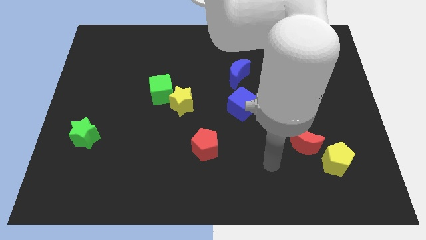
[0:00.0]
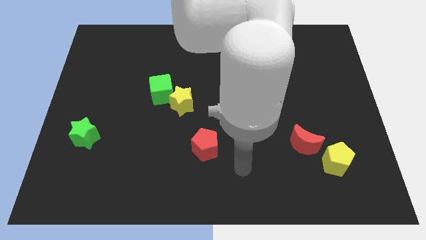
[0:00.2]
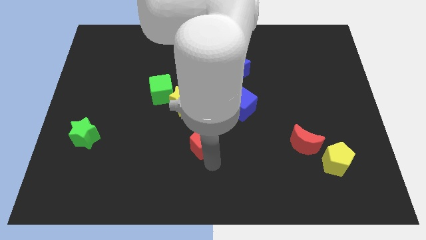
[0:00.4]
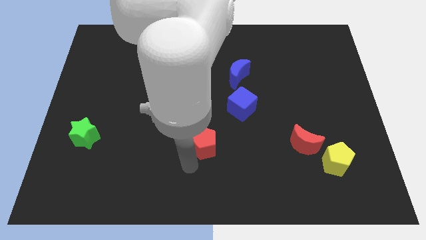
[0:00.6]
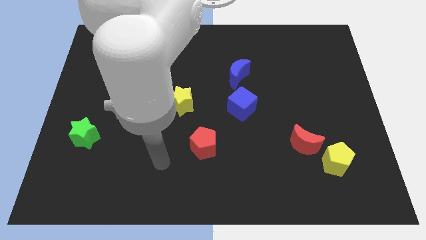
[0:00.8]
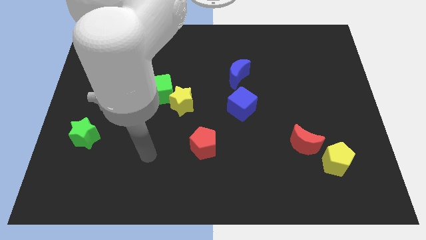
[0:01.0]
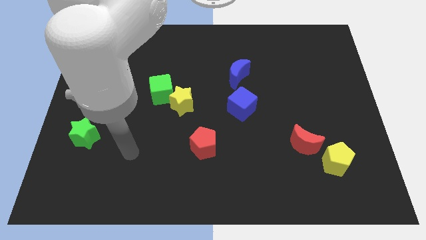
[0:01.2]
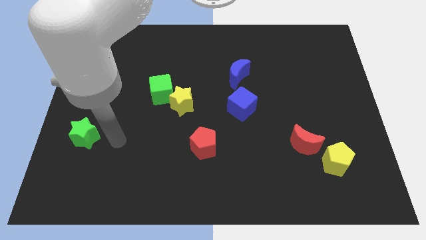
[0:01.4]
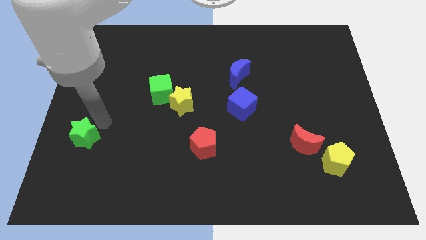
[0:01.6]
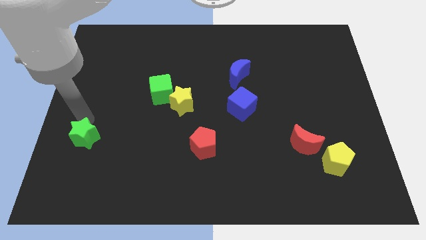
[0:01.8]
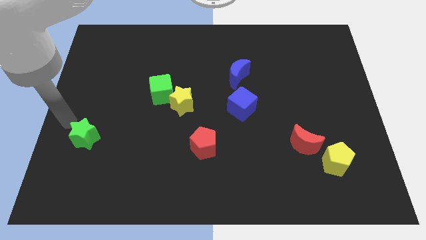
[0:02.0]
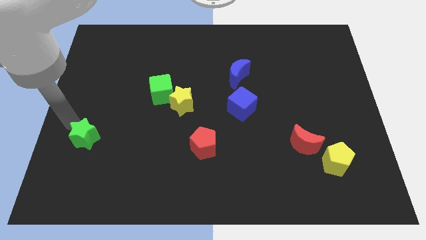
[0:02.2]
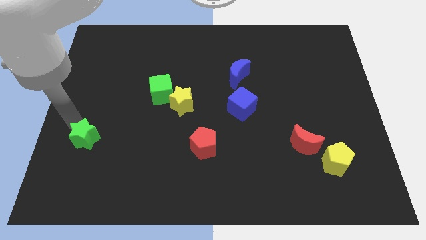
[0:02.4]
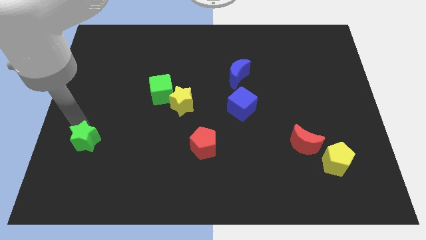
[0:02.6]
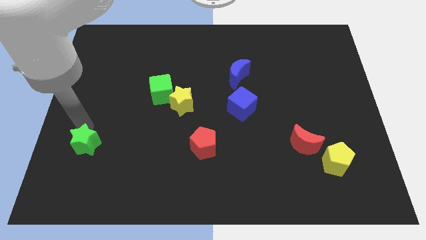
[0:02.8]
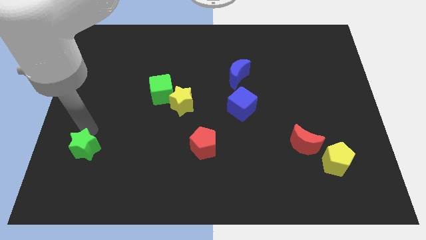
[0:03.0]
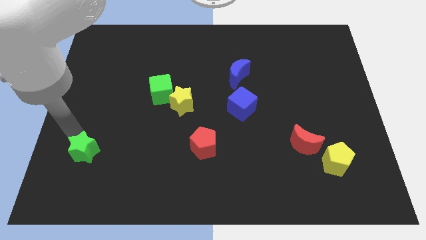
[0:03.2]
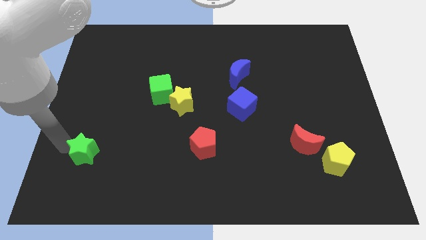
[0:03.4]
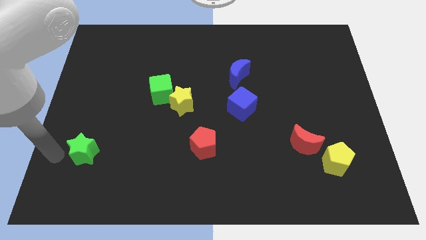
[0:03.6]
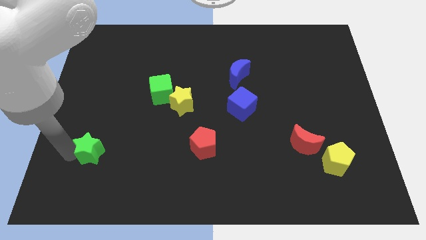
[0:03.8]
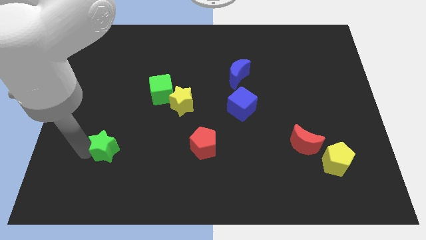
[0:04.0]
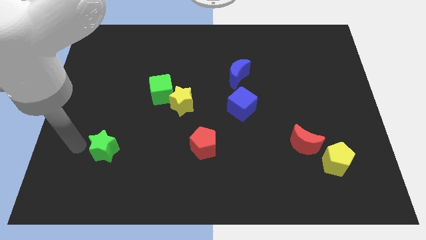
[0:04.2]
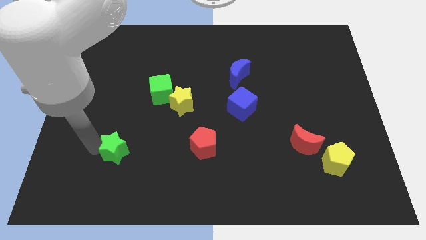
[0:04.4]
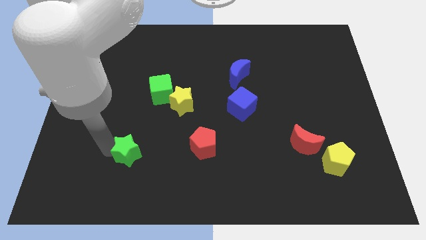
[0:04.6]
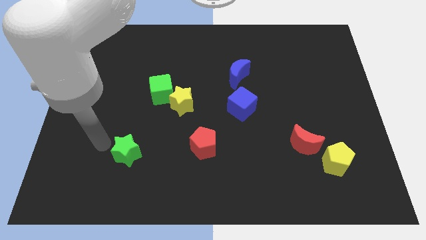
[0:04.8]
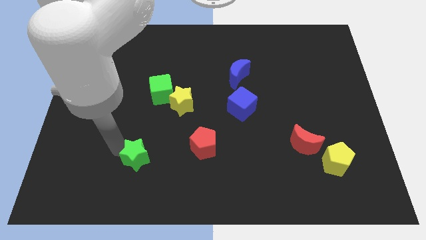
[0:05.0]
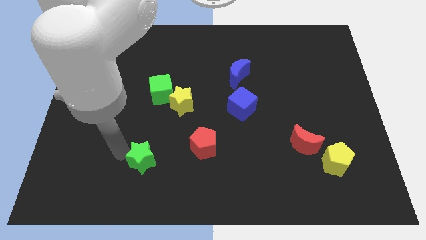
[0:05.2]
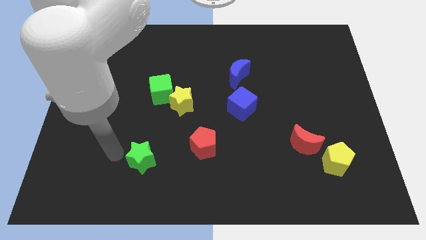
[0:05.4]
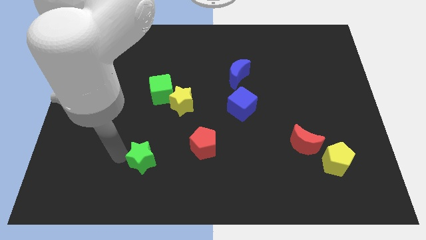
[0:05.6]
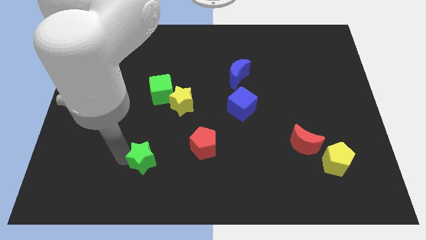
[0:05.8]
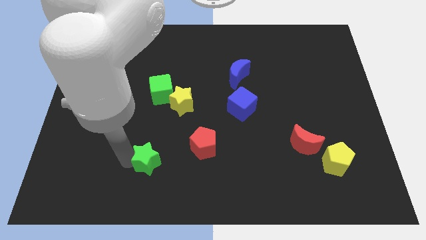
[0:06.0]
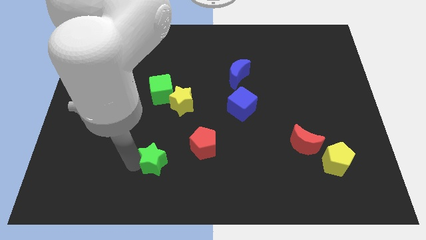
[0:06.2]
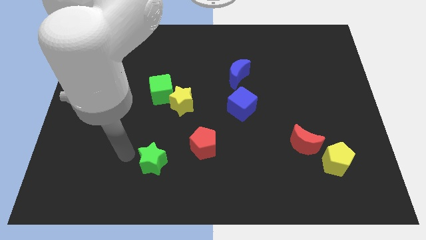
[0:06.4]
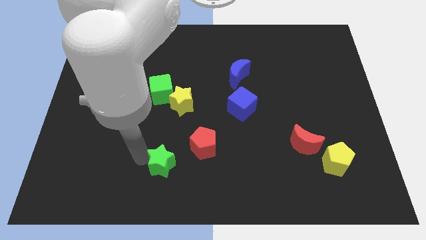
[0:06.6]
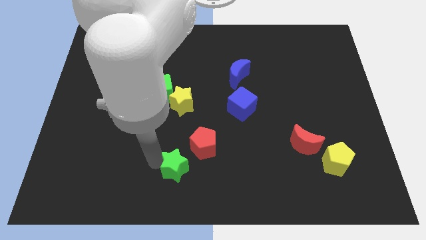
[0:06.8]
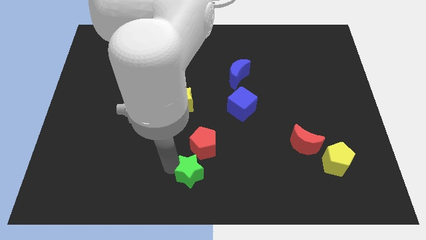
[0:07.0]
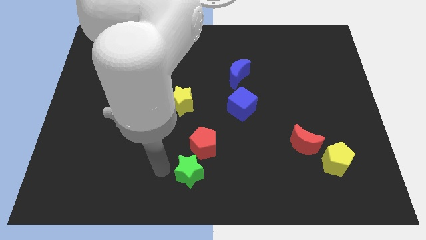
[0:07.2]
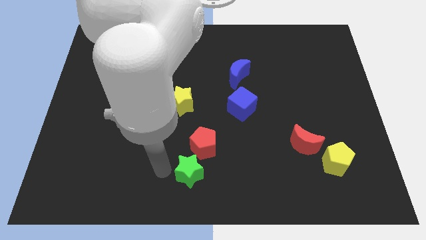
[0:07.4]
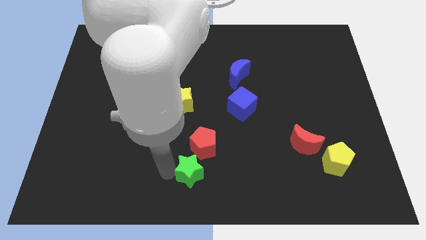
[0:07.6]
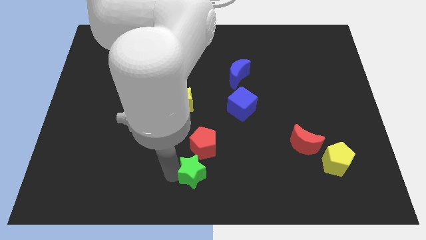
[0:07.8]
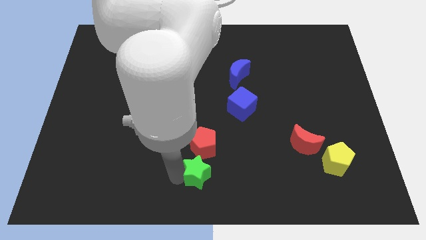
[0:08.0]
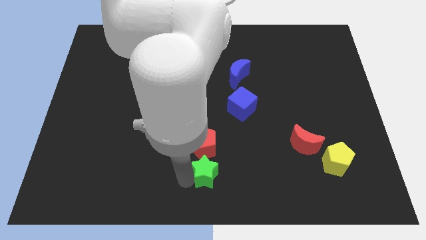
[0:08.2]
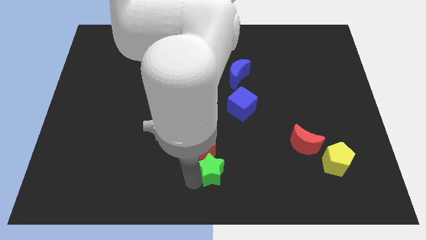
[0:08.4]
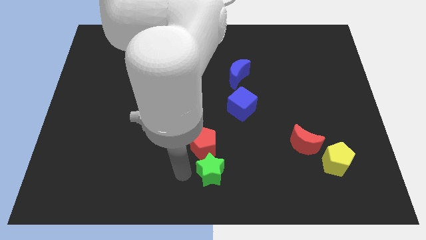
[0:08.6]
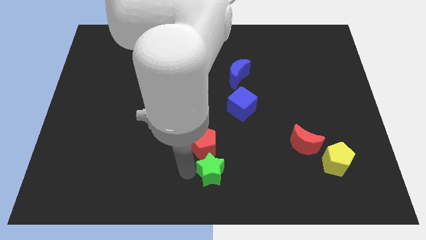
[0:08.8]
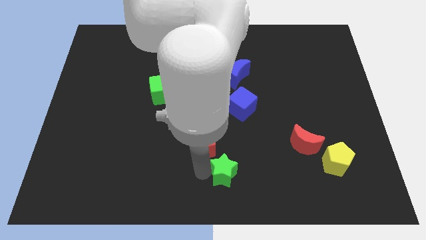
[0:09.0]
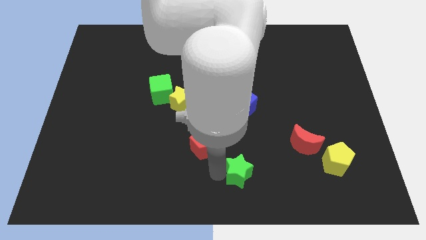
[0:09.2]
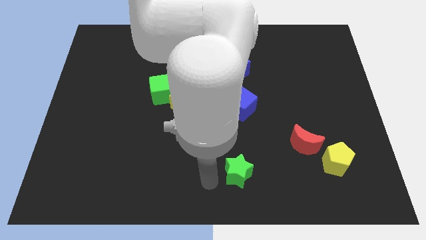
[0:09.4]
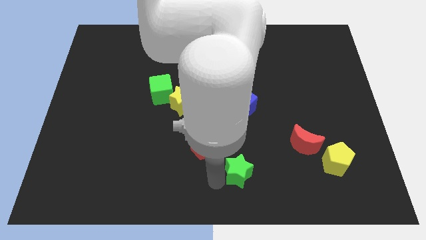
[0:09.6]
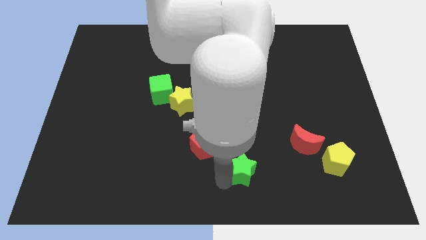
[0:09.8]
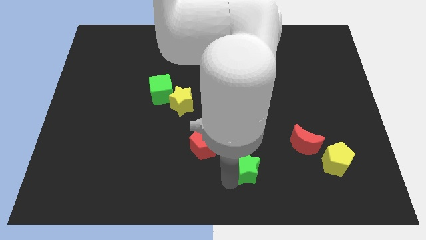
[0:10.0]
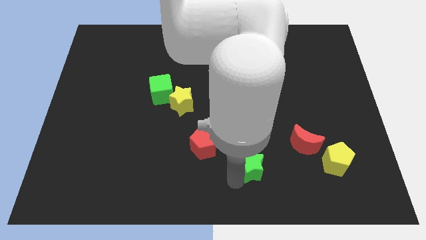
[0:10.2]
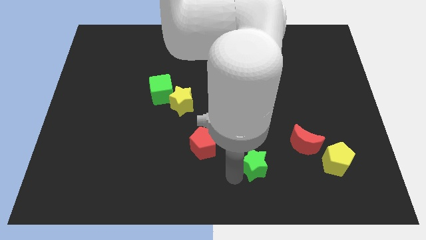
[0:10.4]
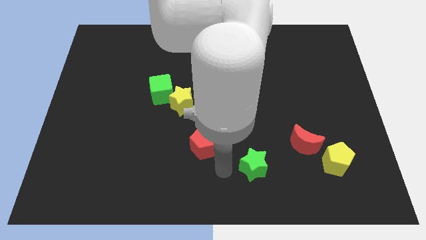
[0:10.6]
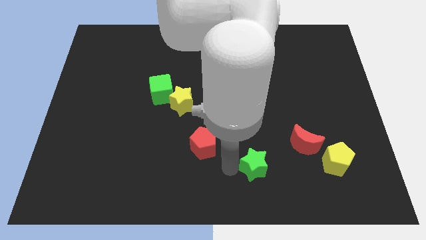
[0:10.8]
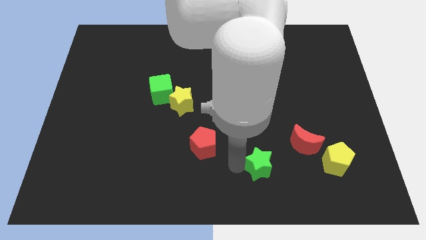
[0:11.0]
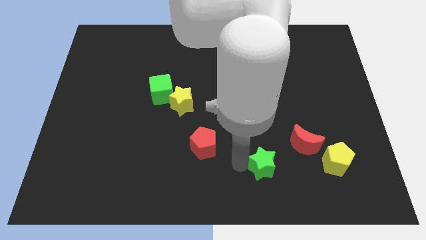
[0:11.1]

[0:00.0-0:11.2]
slide the green star to the left side of the yellow pentagon

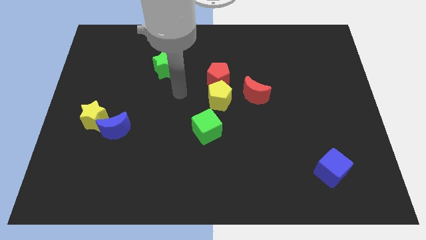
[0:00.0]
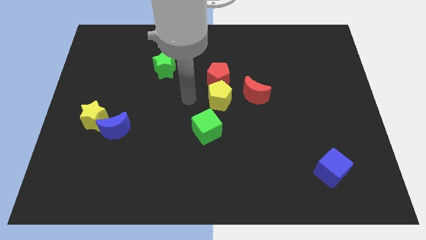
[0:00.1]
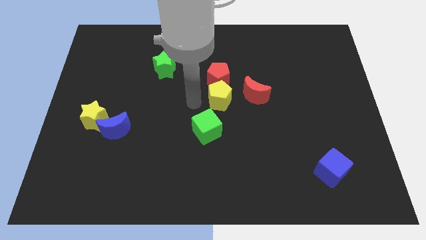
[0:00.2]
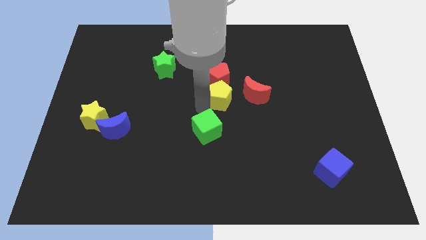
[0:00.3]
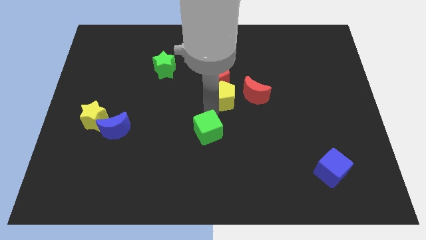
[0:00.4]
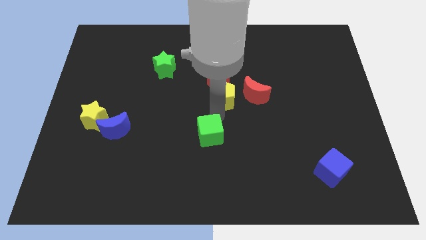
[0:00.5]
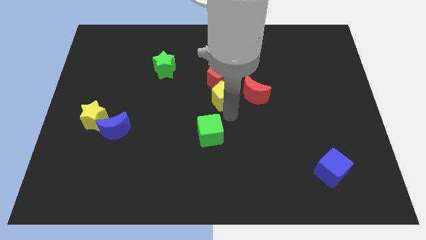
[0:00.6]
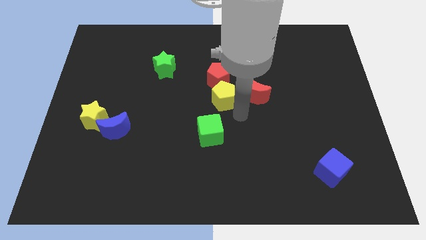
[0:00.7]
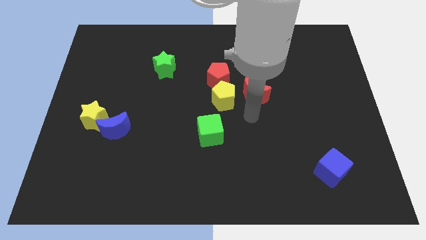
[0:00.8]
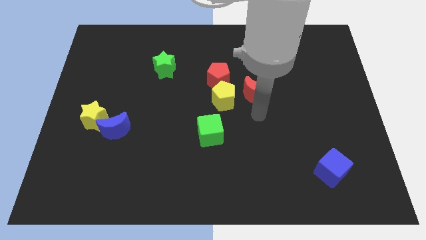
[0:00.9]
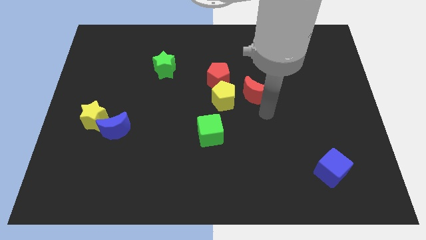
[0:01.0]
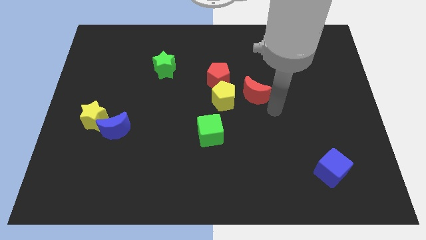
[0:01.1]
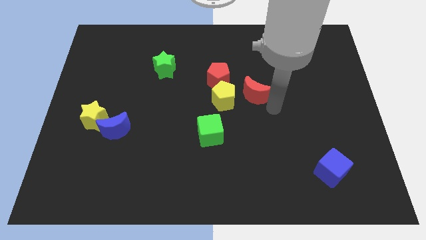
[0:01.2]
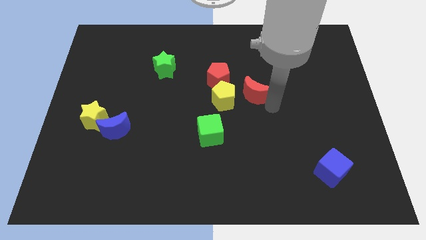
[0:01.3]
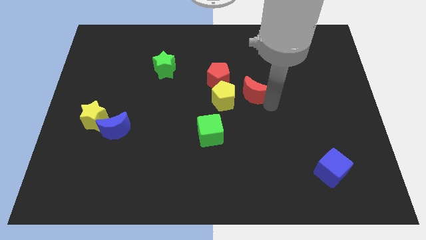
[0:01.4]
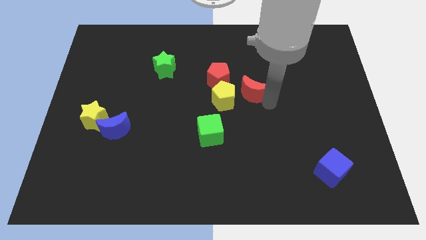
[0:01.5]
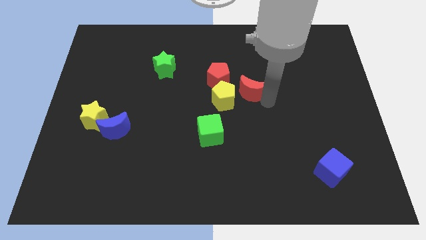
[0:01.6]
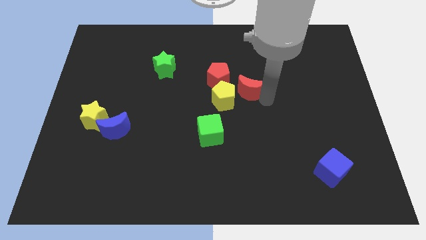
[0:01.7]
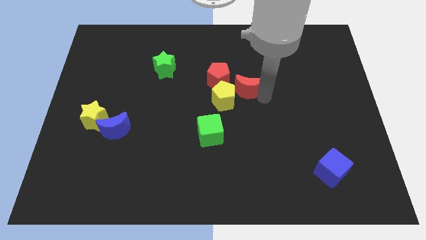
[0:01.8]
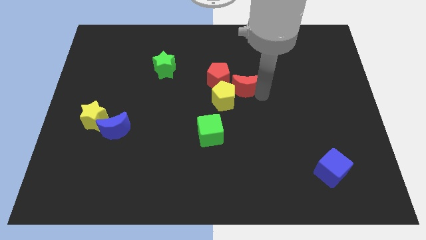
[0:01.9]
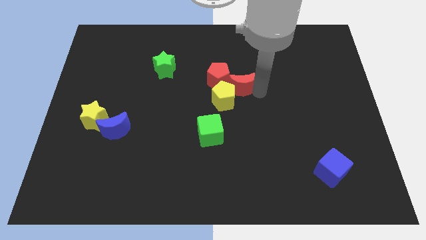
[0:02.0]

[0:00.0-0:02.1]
push the red moon to the top of the yellow pentagon
